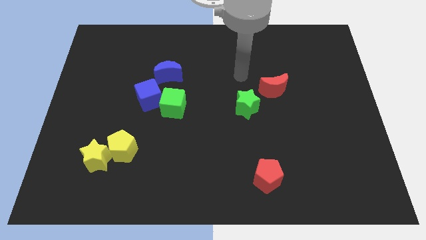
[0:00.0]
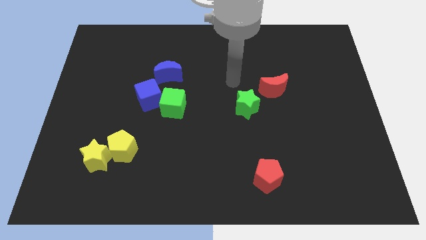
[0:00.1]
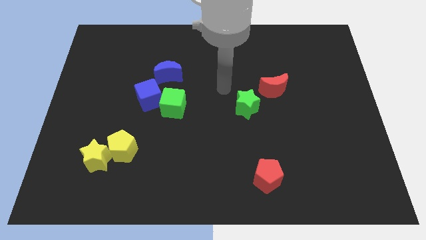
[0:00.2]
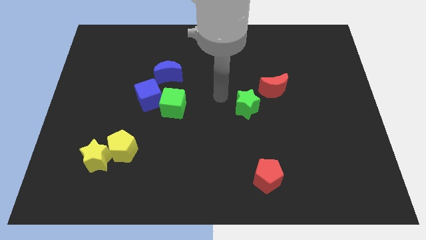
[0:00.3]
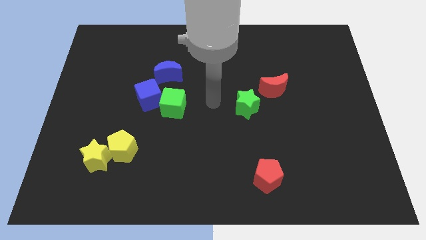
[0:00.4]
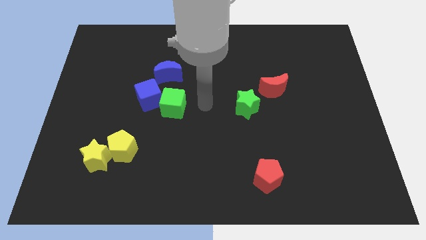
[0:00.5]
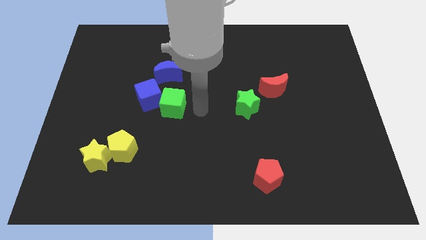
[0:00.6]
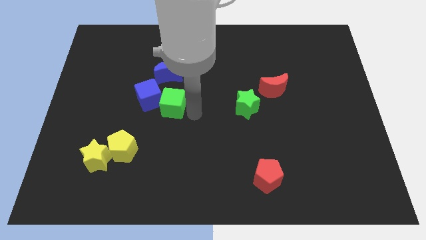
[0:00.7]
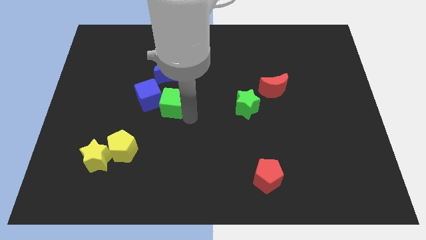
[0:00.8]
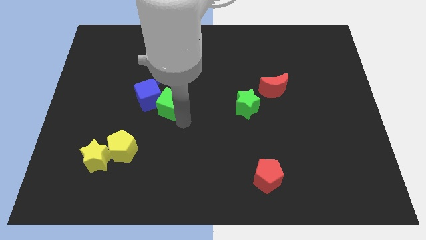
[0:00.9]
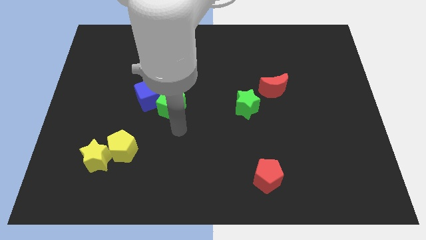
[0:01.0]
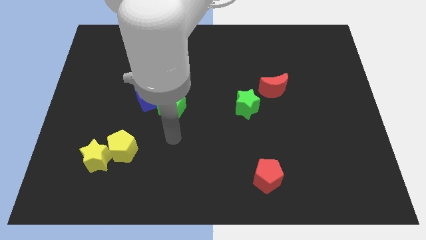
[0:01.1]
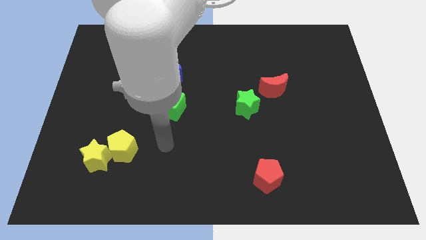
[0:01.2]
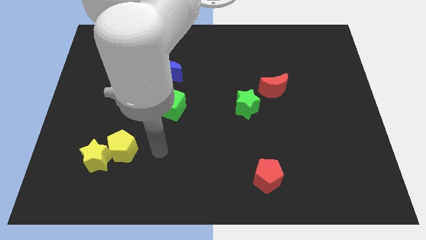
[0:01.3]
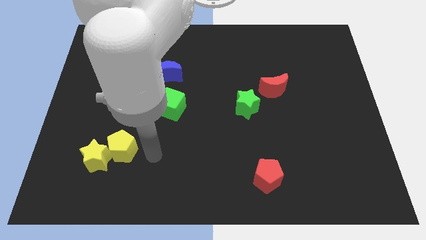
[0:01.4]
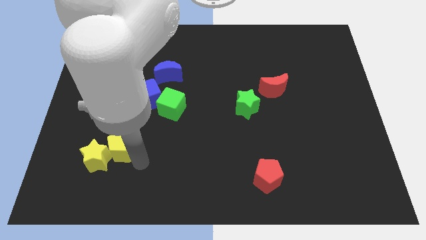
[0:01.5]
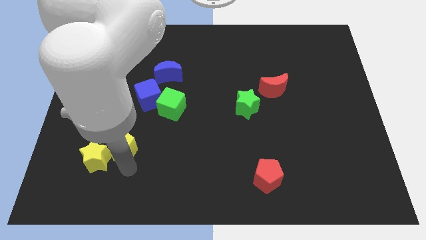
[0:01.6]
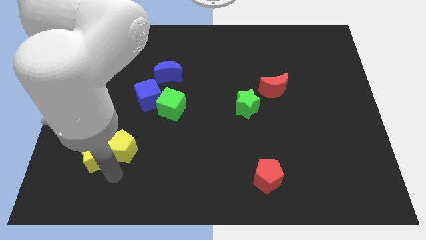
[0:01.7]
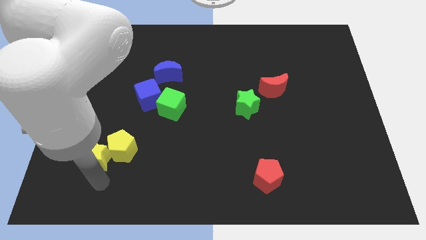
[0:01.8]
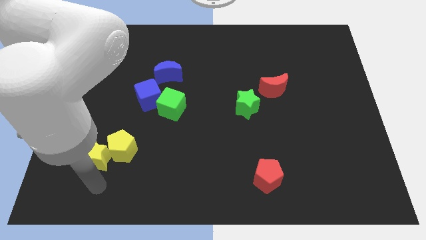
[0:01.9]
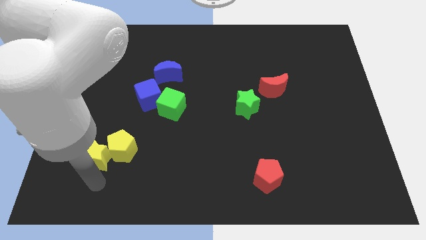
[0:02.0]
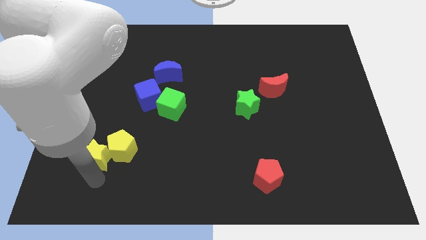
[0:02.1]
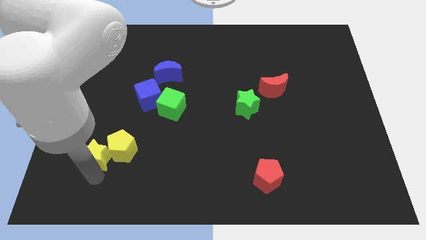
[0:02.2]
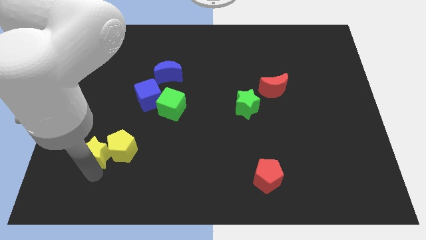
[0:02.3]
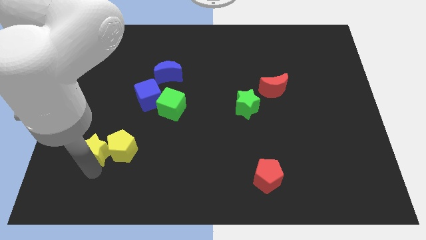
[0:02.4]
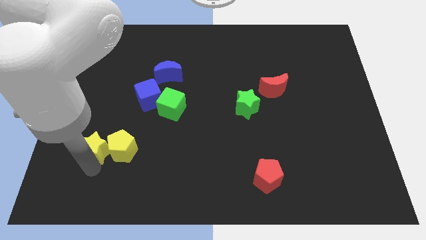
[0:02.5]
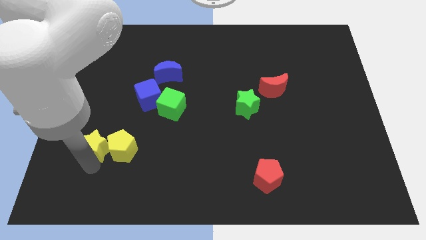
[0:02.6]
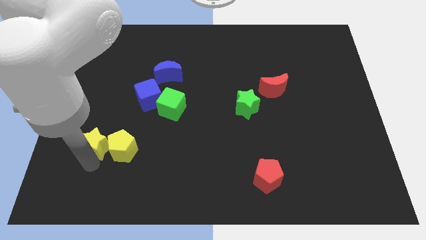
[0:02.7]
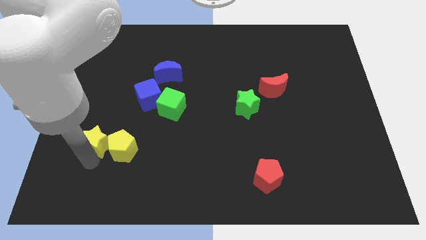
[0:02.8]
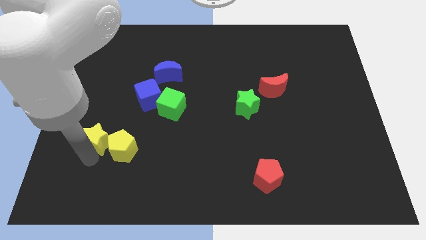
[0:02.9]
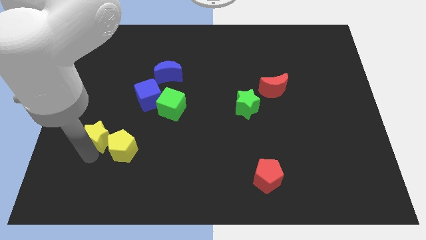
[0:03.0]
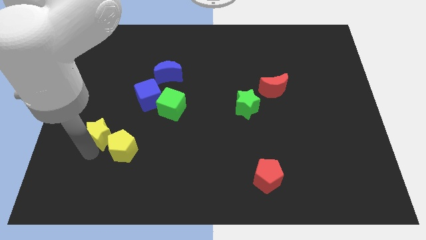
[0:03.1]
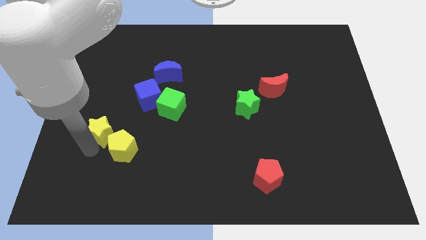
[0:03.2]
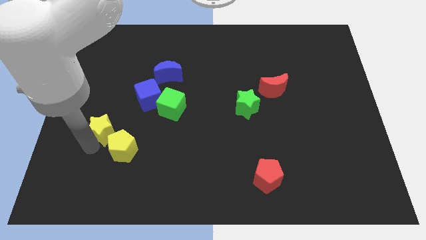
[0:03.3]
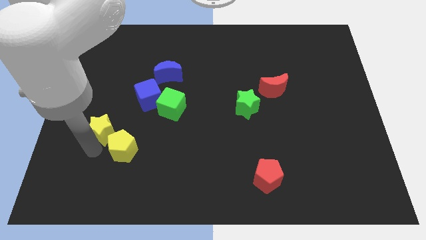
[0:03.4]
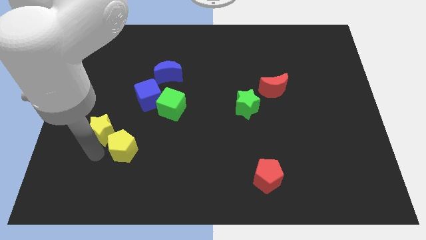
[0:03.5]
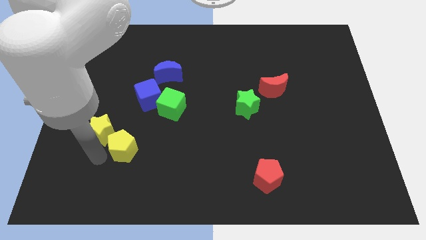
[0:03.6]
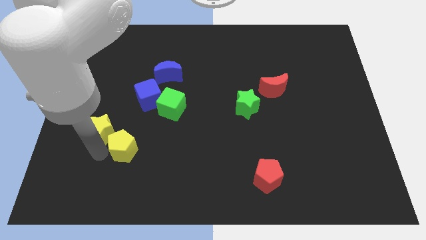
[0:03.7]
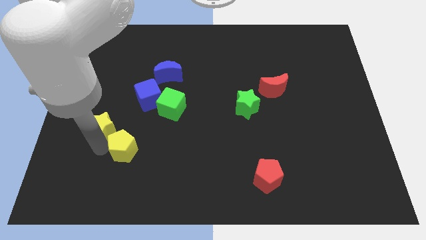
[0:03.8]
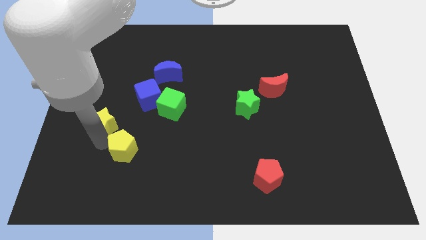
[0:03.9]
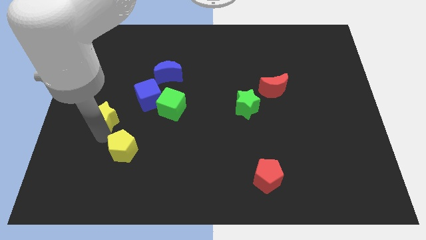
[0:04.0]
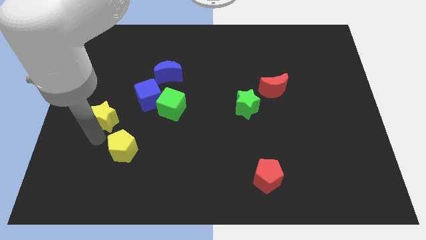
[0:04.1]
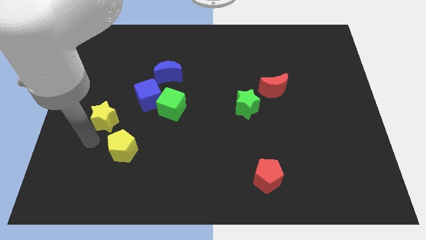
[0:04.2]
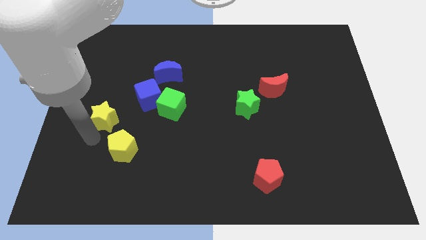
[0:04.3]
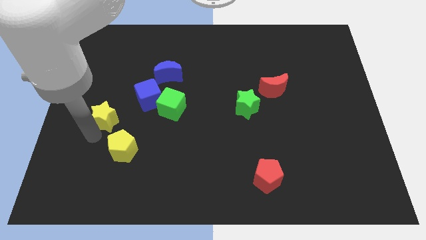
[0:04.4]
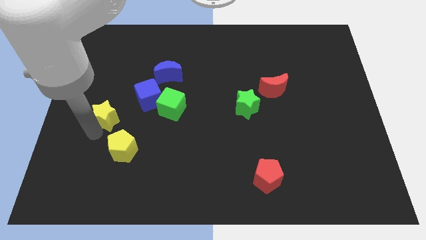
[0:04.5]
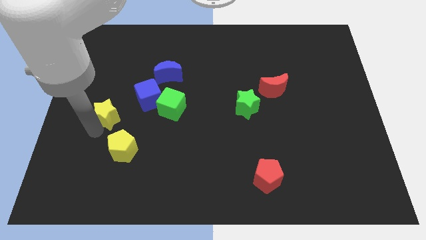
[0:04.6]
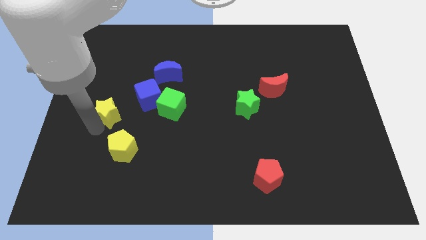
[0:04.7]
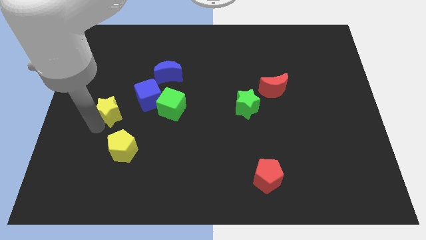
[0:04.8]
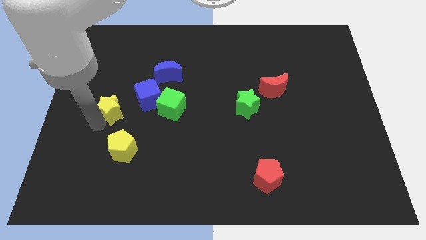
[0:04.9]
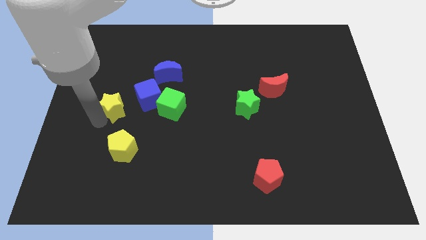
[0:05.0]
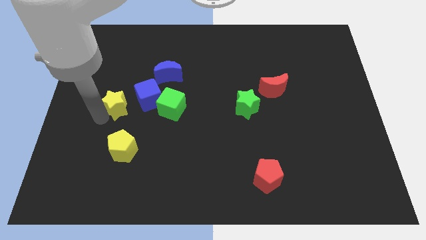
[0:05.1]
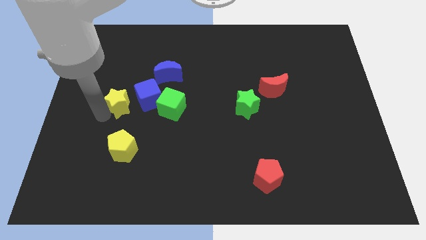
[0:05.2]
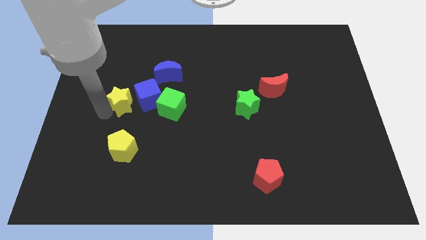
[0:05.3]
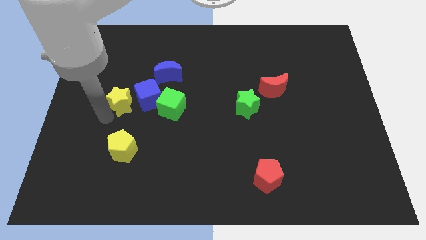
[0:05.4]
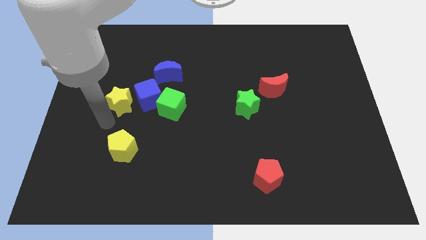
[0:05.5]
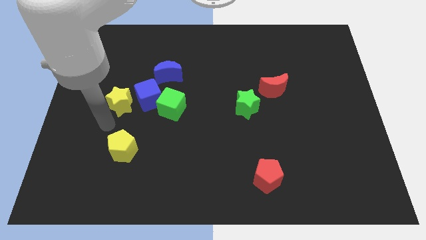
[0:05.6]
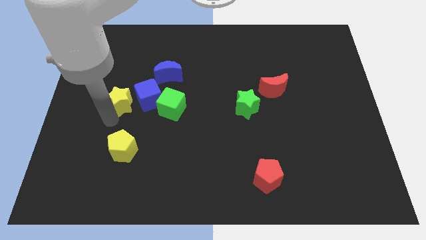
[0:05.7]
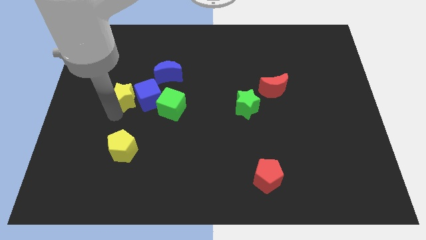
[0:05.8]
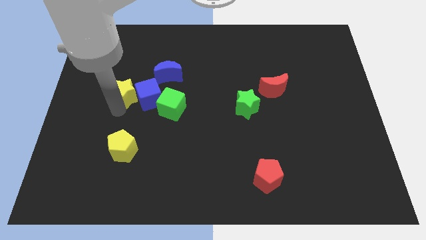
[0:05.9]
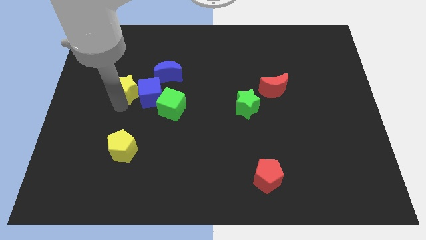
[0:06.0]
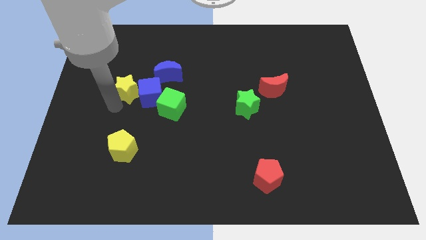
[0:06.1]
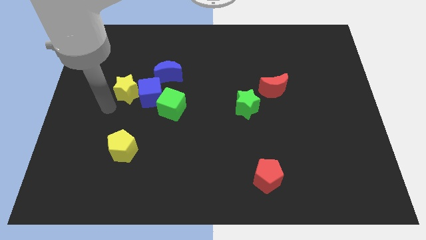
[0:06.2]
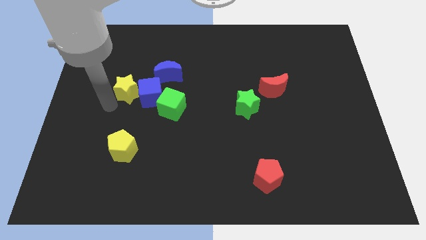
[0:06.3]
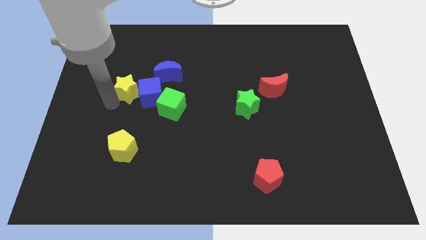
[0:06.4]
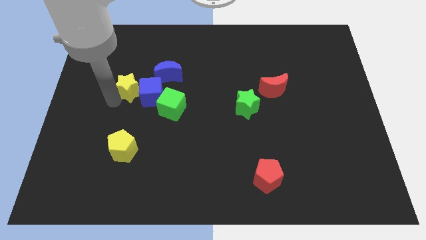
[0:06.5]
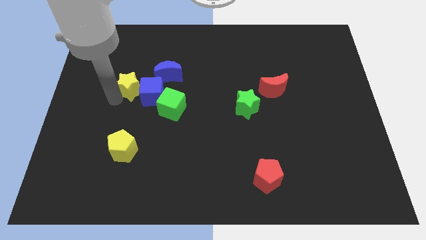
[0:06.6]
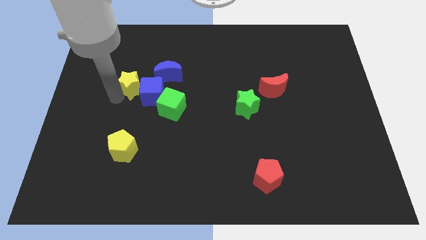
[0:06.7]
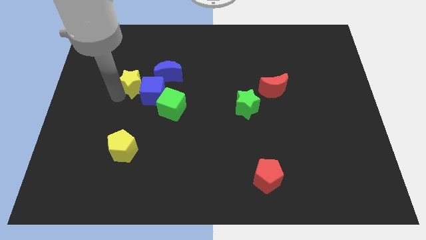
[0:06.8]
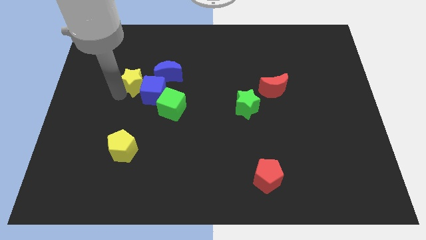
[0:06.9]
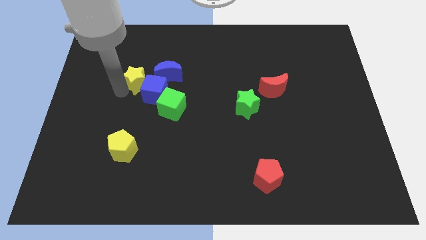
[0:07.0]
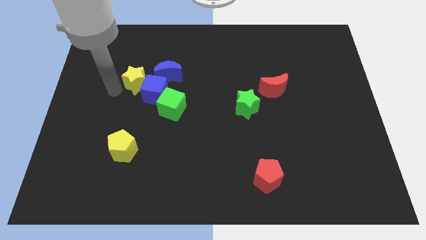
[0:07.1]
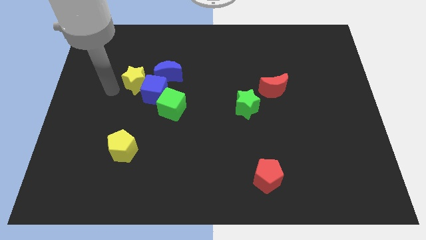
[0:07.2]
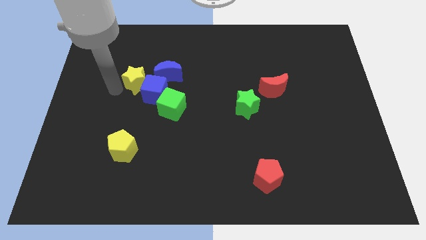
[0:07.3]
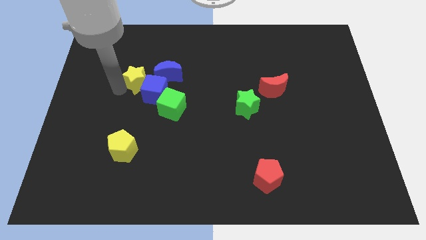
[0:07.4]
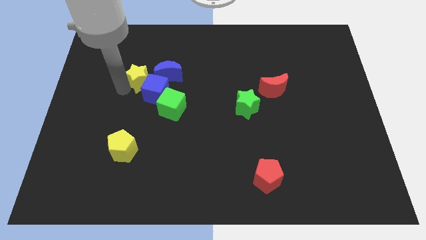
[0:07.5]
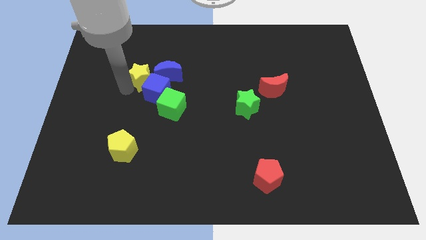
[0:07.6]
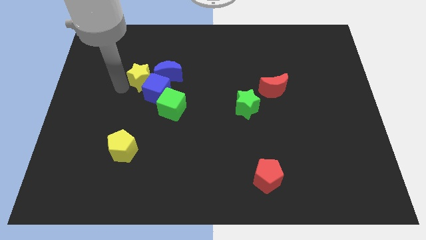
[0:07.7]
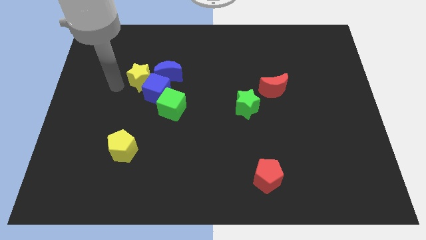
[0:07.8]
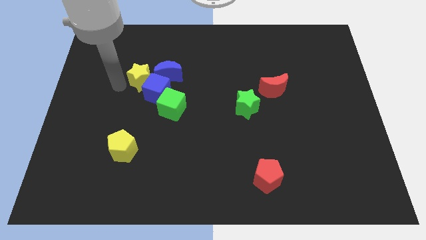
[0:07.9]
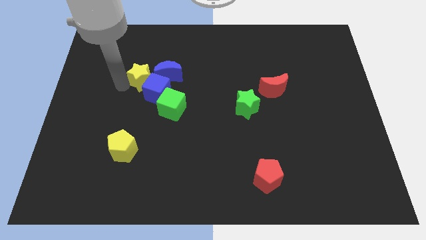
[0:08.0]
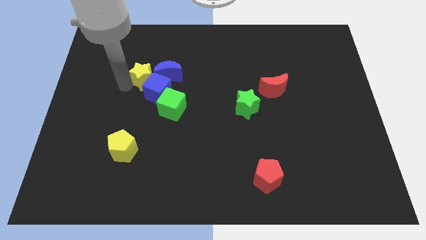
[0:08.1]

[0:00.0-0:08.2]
slide the yellow star close to the blue moon
